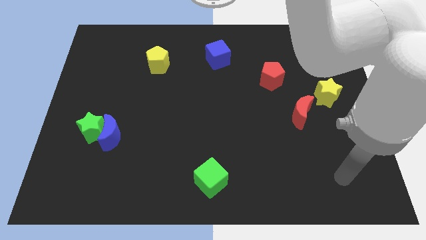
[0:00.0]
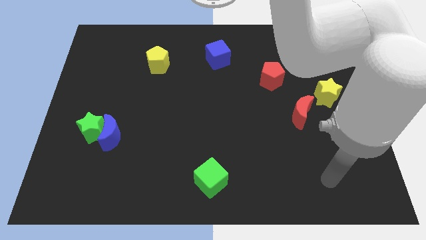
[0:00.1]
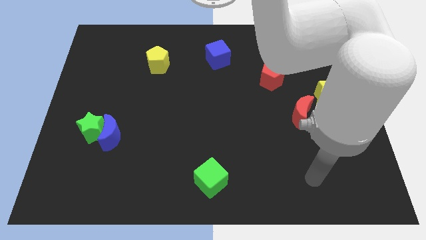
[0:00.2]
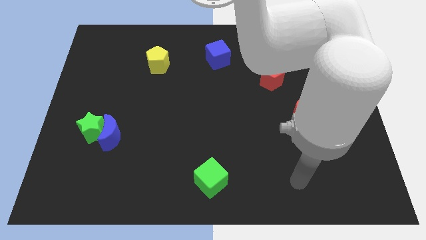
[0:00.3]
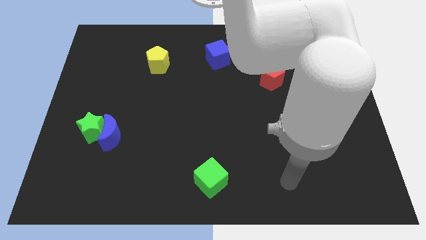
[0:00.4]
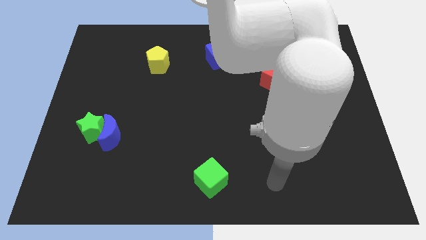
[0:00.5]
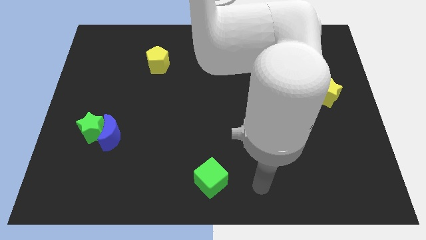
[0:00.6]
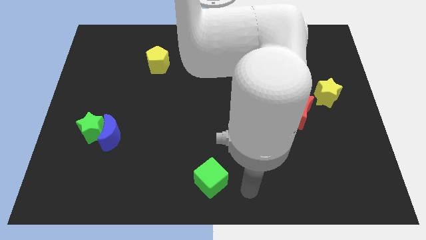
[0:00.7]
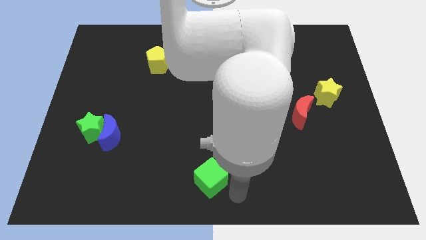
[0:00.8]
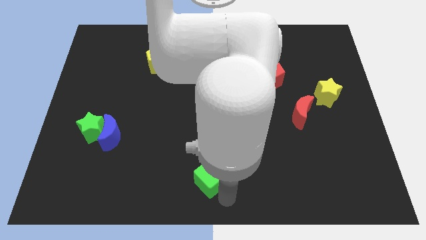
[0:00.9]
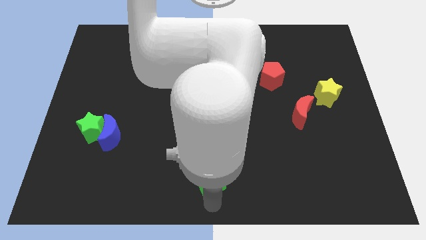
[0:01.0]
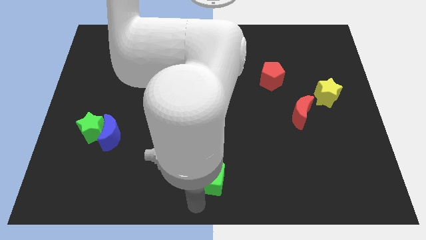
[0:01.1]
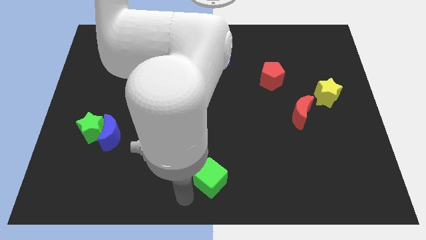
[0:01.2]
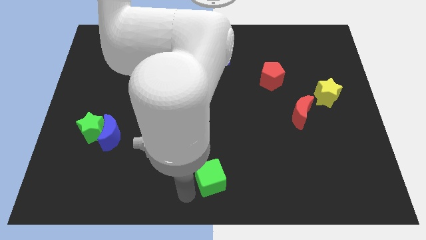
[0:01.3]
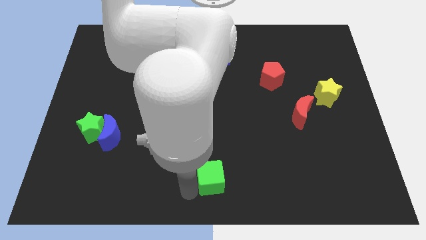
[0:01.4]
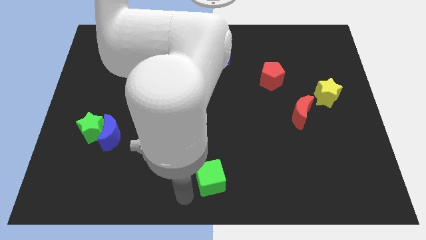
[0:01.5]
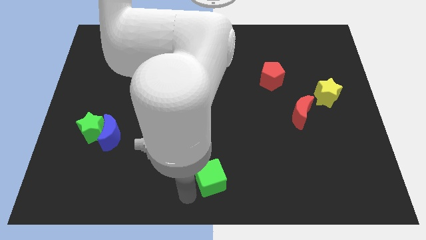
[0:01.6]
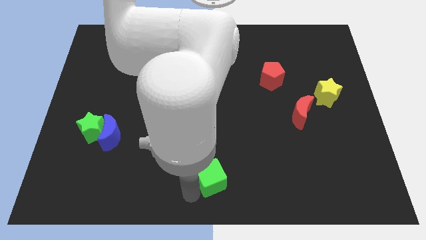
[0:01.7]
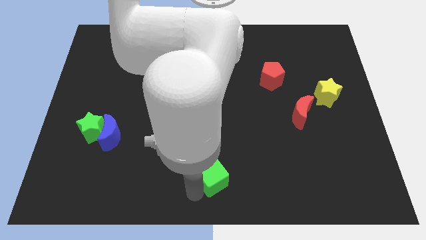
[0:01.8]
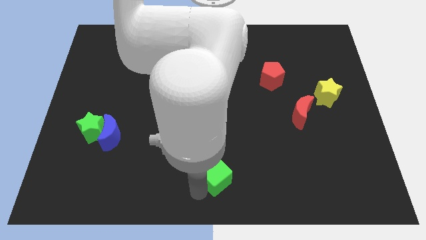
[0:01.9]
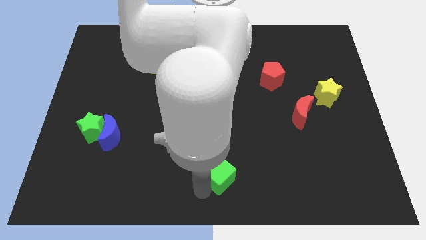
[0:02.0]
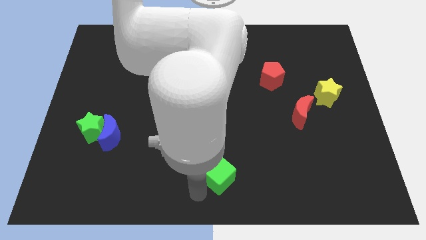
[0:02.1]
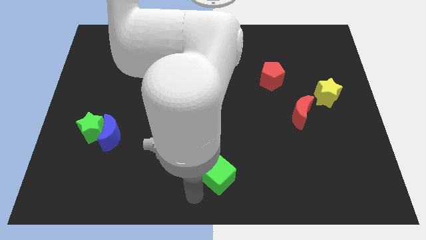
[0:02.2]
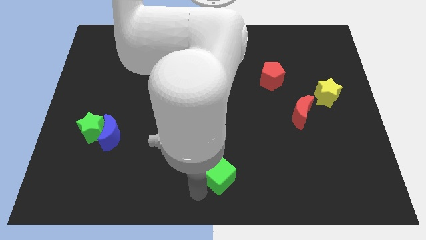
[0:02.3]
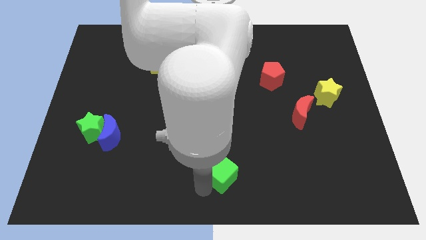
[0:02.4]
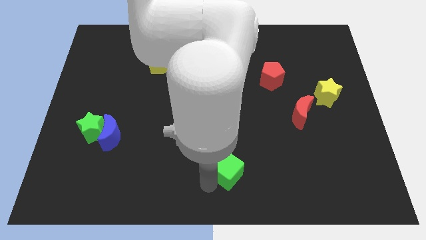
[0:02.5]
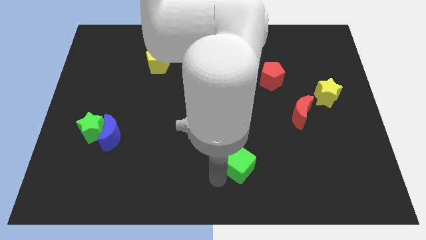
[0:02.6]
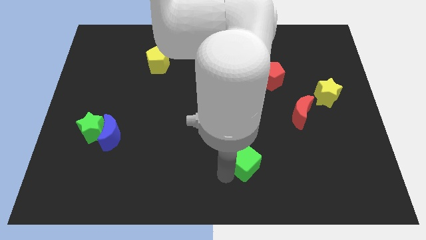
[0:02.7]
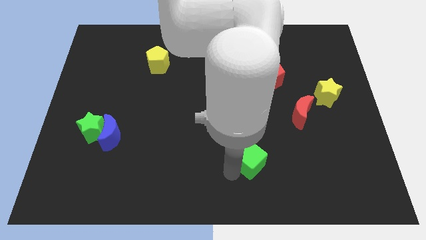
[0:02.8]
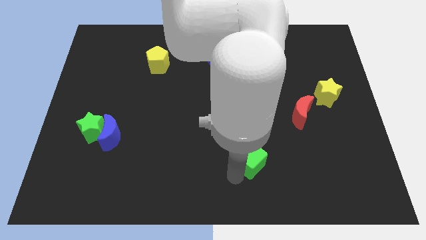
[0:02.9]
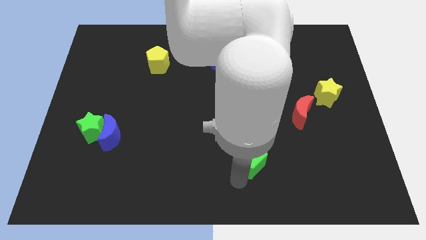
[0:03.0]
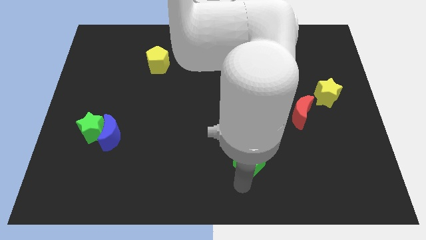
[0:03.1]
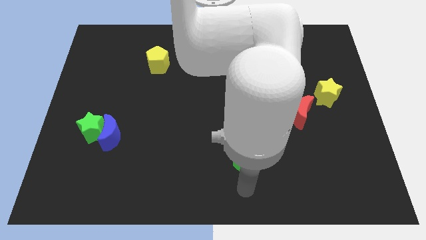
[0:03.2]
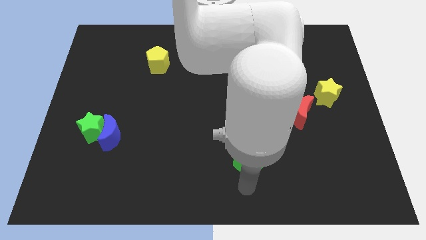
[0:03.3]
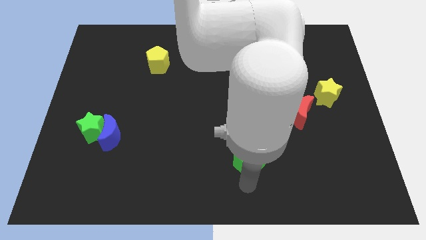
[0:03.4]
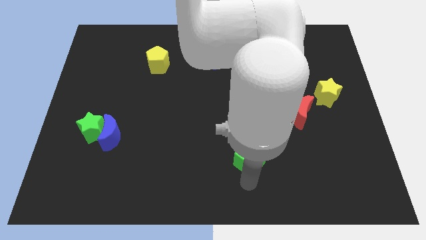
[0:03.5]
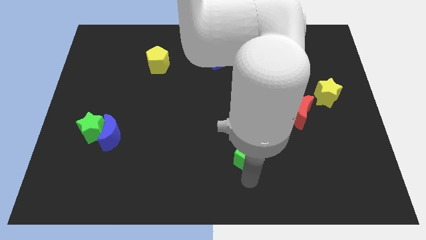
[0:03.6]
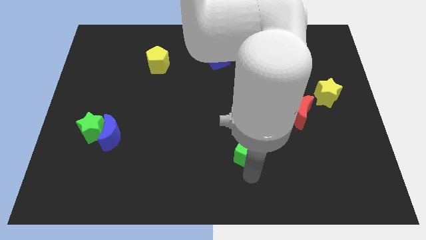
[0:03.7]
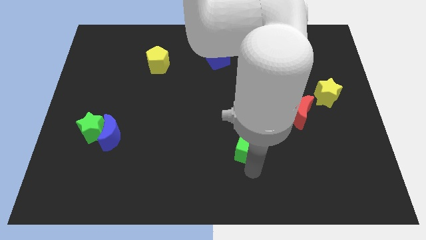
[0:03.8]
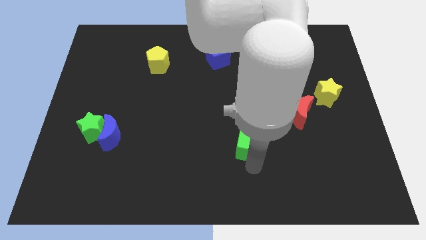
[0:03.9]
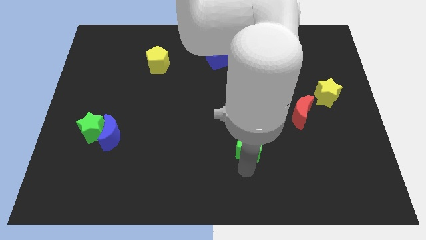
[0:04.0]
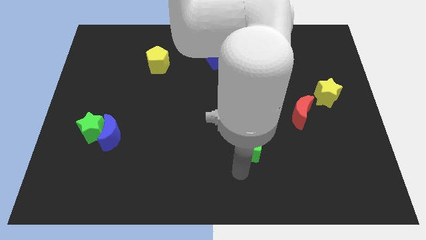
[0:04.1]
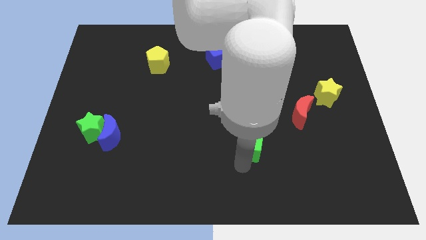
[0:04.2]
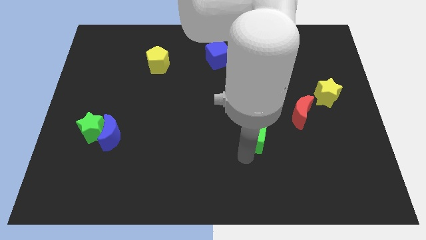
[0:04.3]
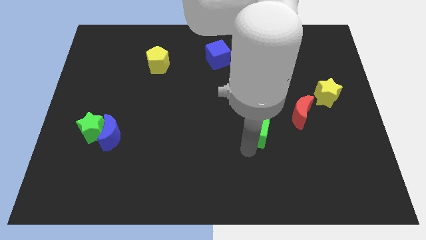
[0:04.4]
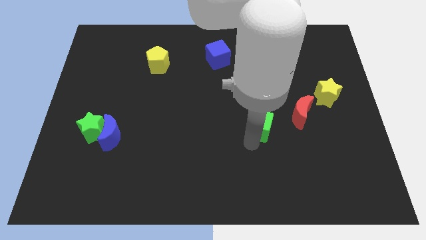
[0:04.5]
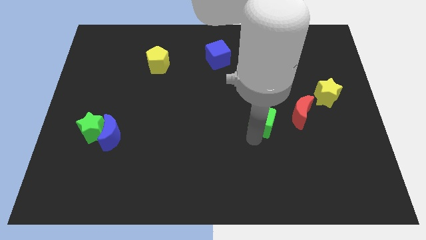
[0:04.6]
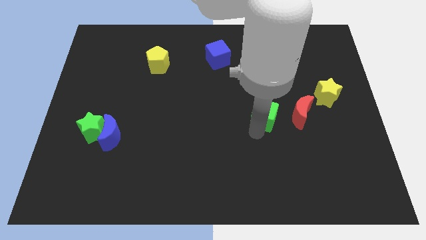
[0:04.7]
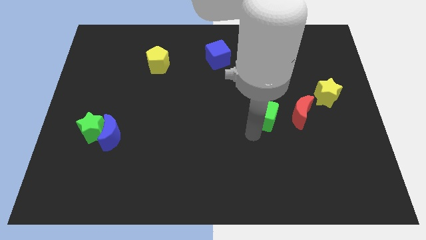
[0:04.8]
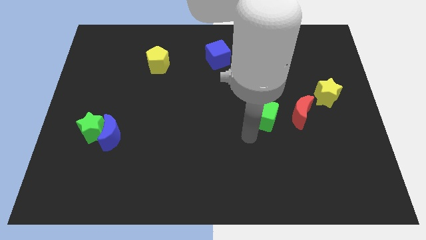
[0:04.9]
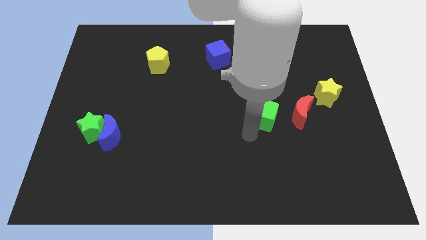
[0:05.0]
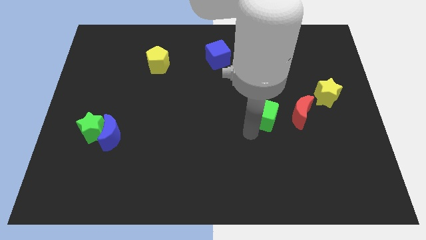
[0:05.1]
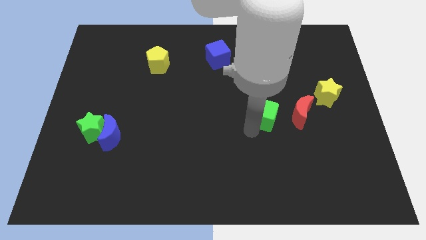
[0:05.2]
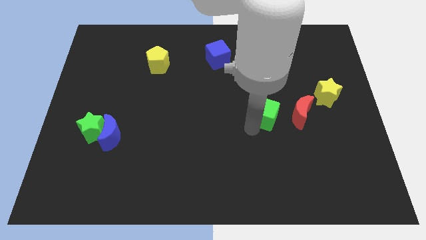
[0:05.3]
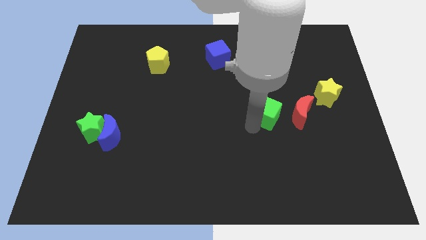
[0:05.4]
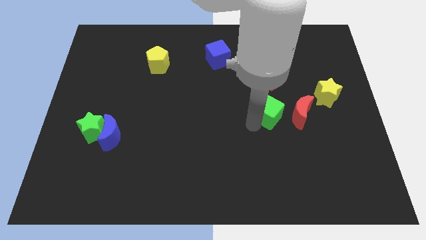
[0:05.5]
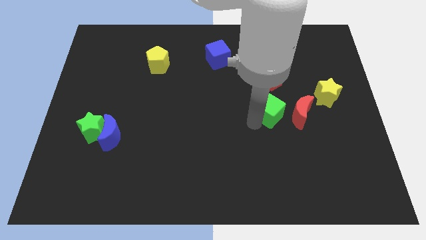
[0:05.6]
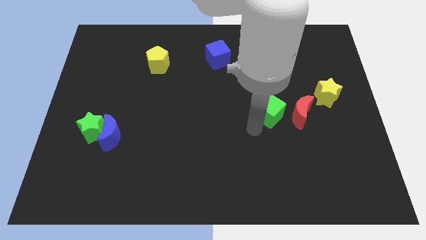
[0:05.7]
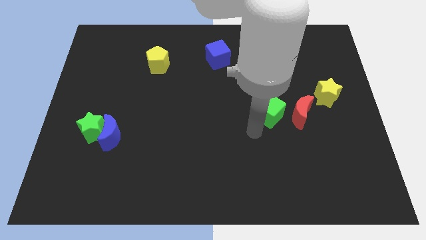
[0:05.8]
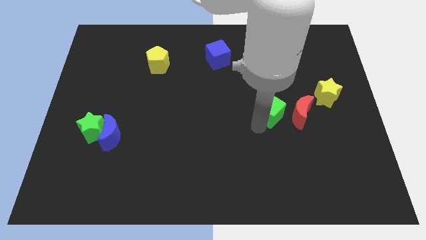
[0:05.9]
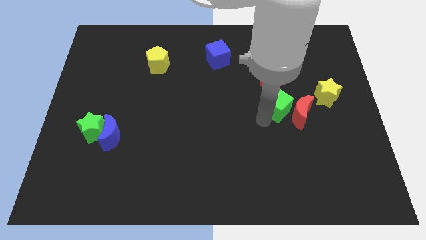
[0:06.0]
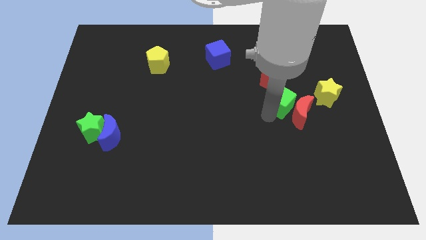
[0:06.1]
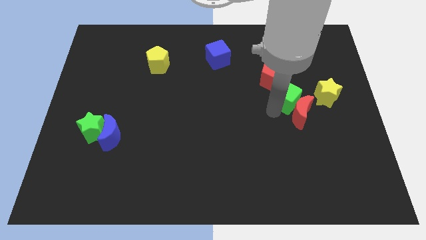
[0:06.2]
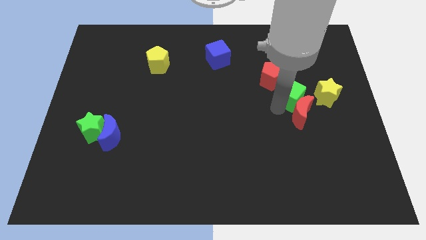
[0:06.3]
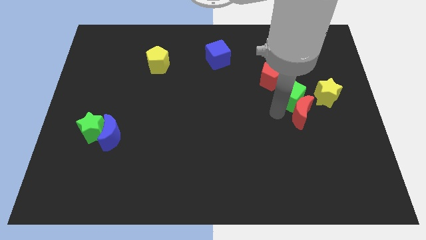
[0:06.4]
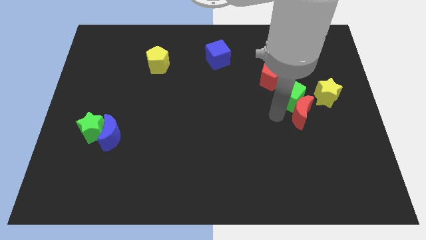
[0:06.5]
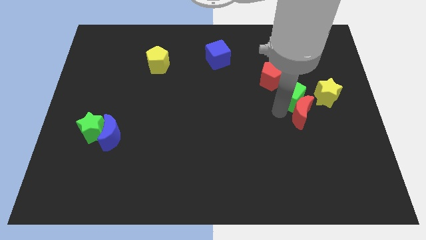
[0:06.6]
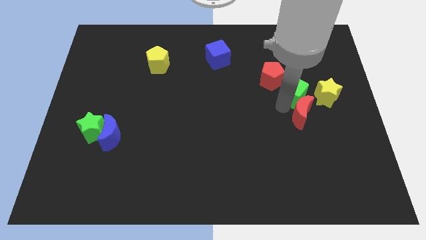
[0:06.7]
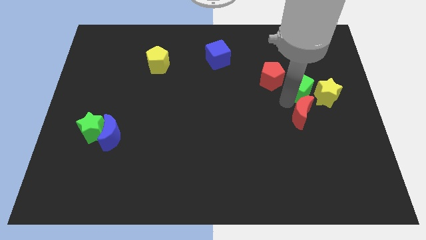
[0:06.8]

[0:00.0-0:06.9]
slide the green cube diagonally up and to the left of the yellow star

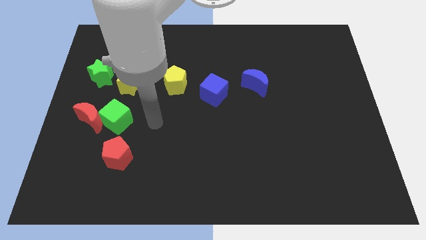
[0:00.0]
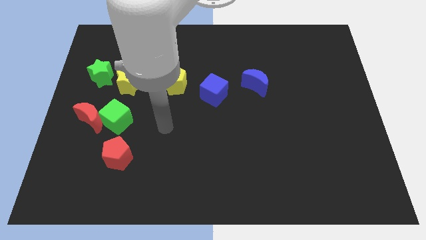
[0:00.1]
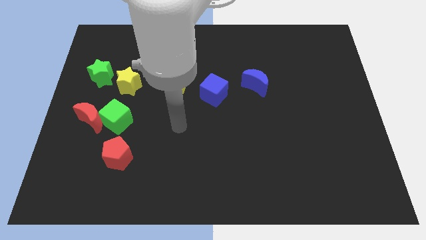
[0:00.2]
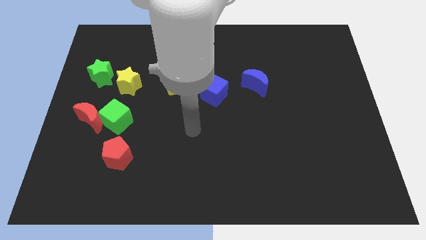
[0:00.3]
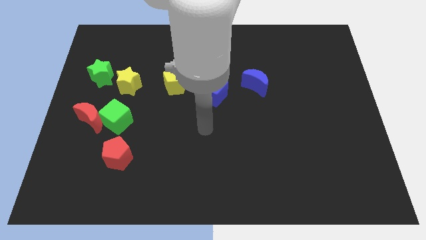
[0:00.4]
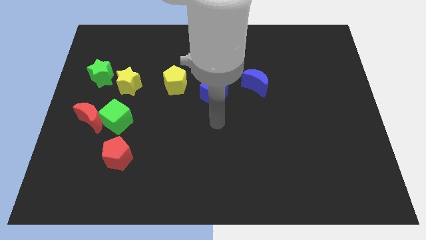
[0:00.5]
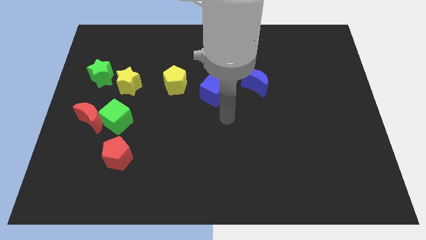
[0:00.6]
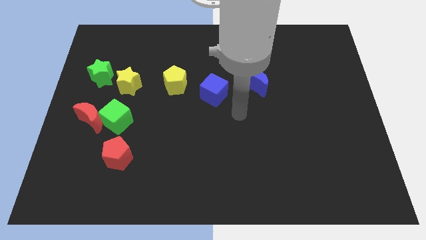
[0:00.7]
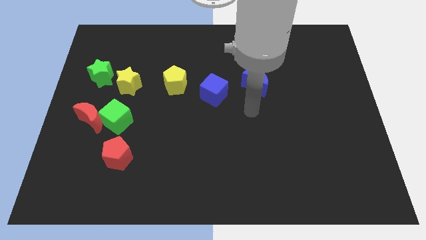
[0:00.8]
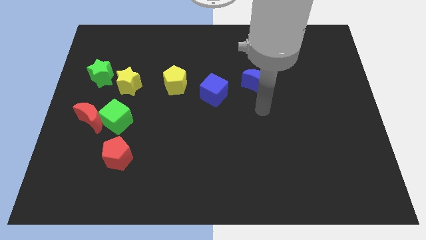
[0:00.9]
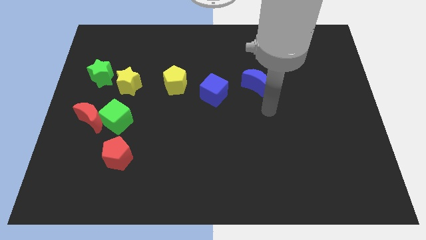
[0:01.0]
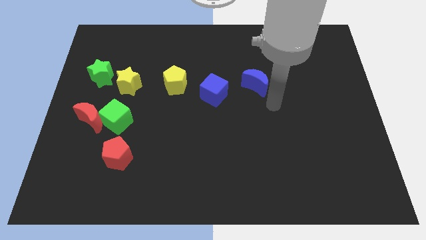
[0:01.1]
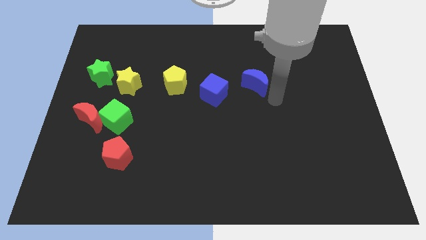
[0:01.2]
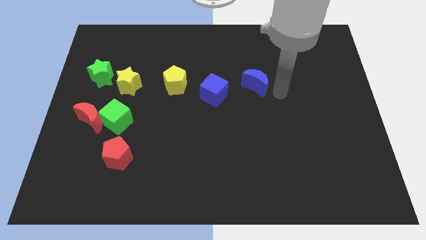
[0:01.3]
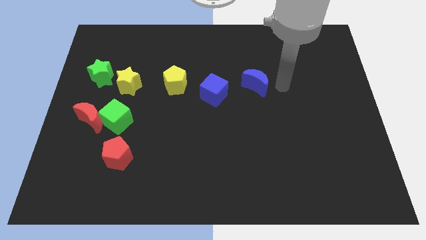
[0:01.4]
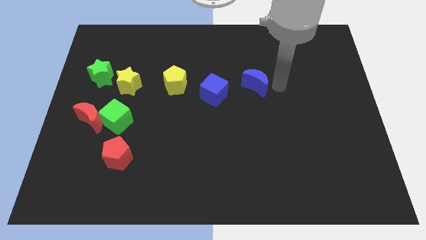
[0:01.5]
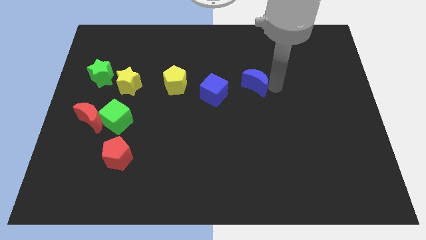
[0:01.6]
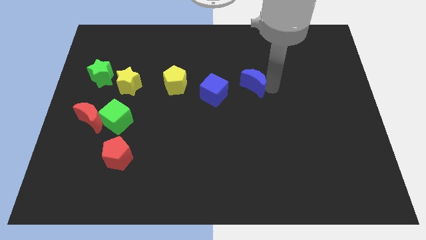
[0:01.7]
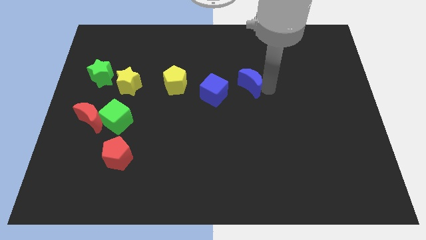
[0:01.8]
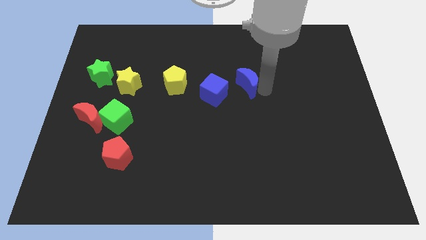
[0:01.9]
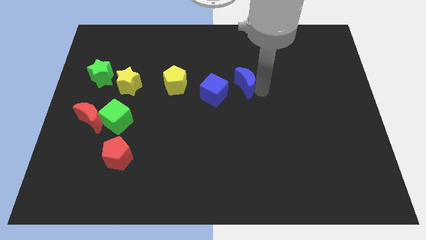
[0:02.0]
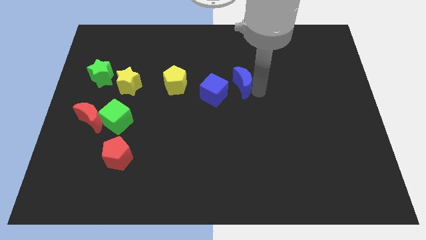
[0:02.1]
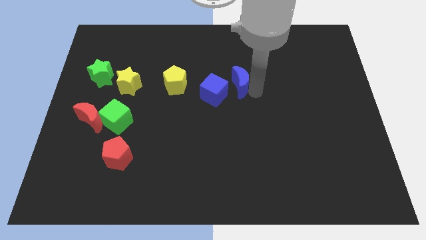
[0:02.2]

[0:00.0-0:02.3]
slide the blue moon to the right of the yellow pentagon
